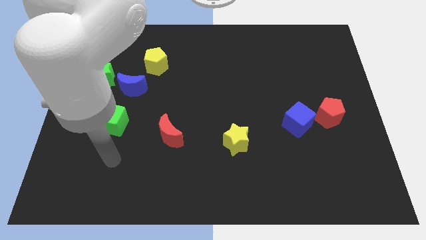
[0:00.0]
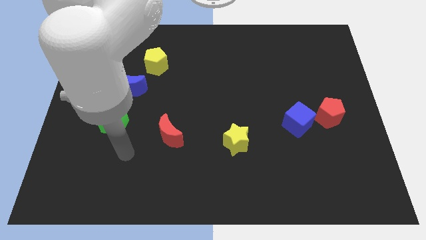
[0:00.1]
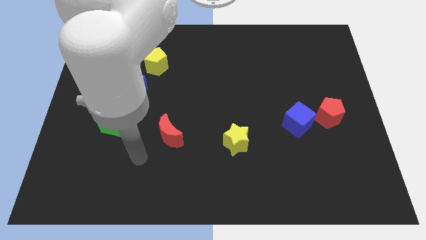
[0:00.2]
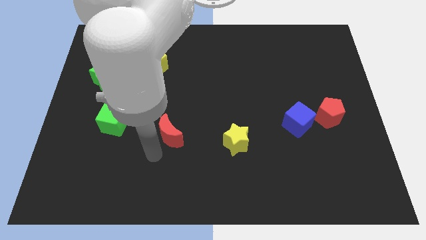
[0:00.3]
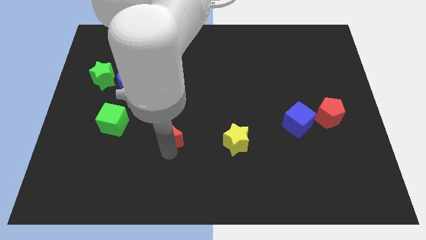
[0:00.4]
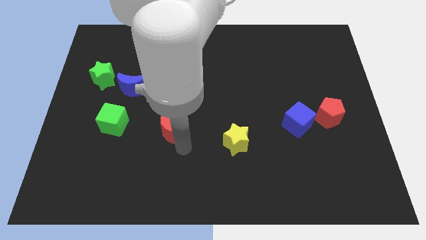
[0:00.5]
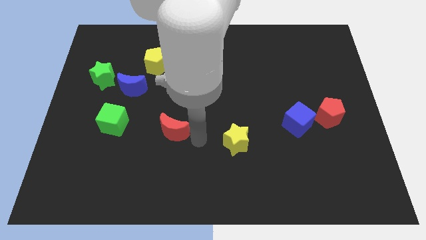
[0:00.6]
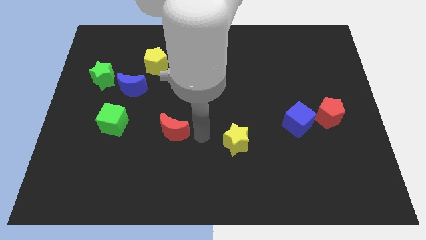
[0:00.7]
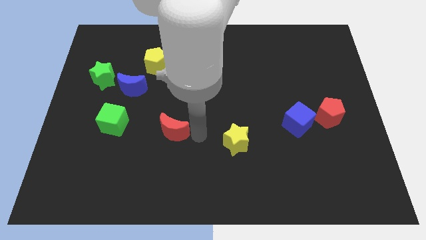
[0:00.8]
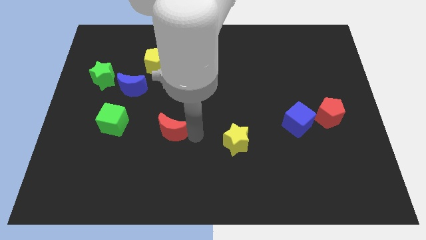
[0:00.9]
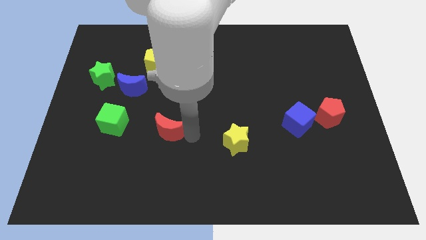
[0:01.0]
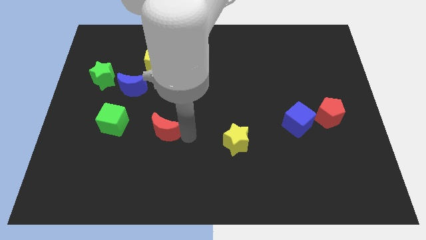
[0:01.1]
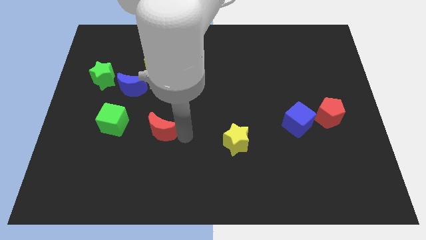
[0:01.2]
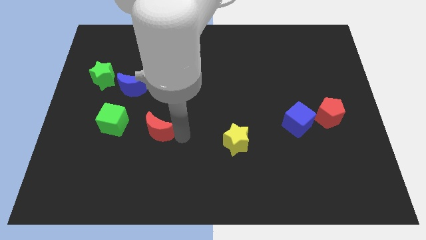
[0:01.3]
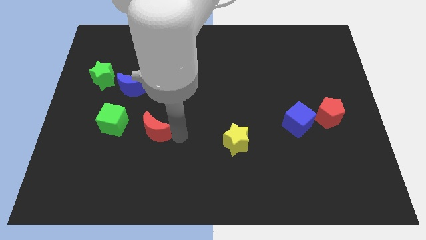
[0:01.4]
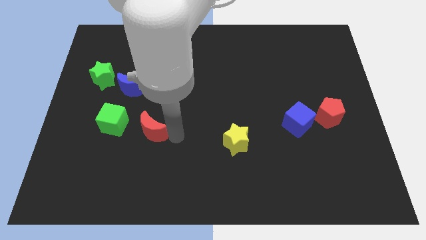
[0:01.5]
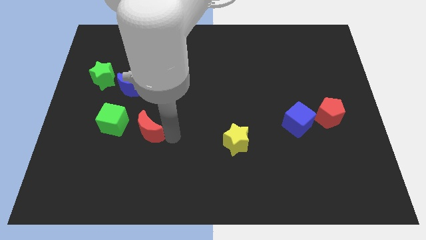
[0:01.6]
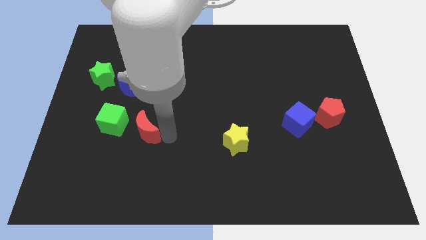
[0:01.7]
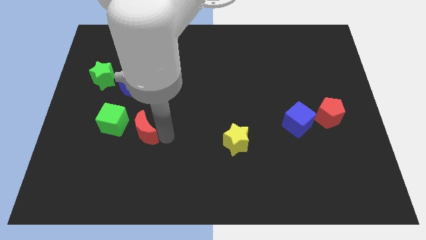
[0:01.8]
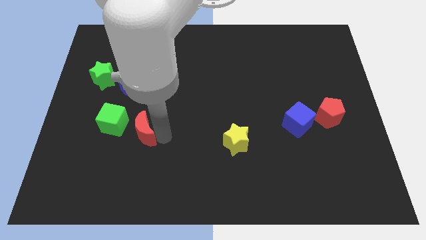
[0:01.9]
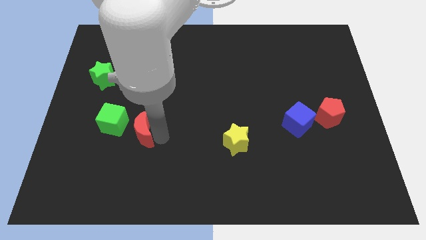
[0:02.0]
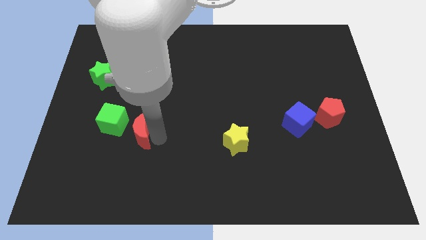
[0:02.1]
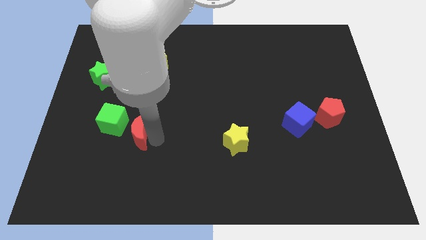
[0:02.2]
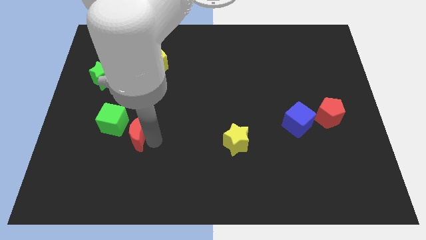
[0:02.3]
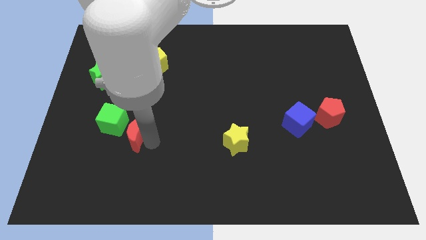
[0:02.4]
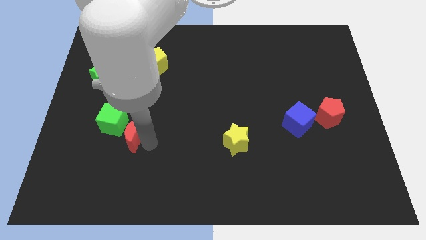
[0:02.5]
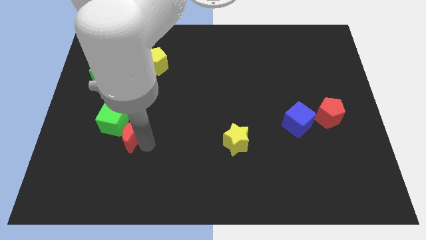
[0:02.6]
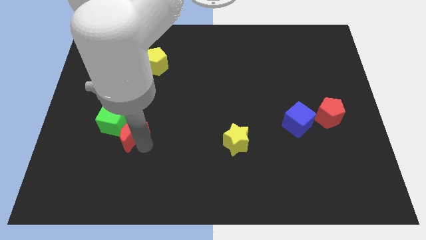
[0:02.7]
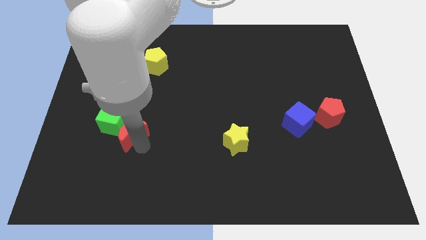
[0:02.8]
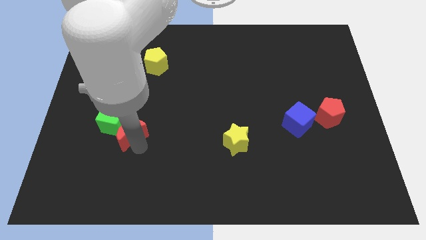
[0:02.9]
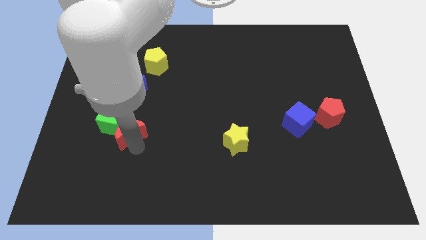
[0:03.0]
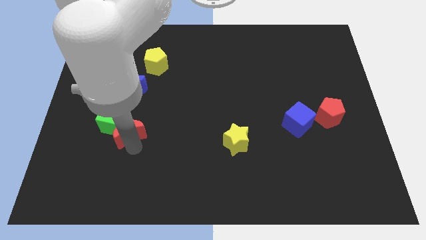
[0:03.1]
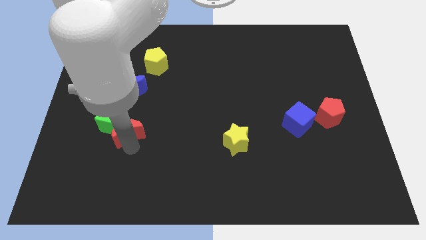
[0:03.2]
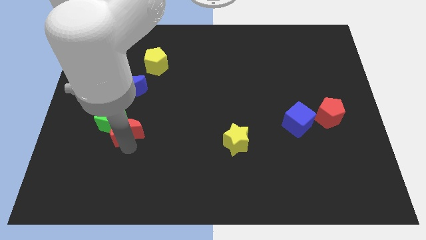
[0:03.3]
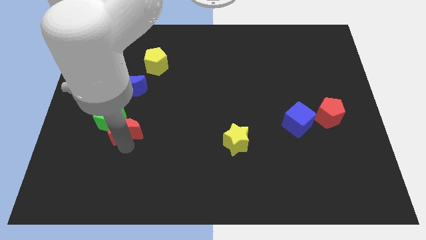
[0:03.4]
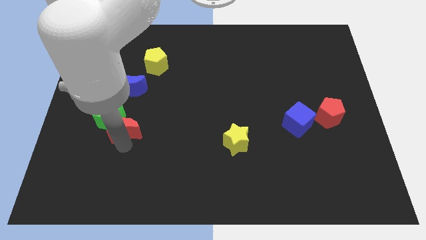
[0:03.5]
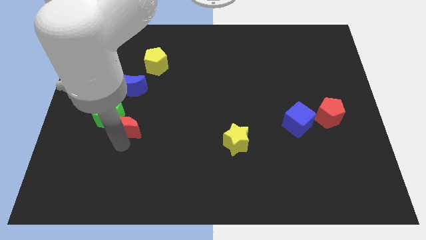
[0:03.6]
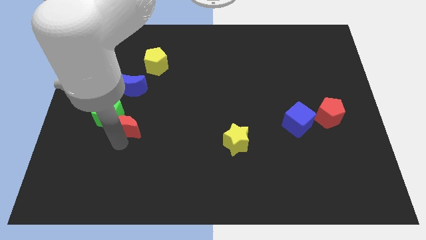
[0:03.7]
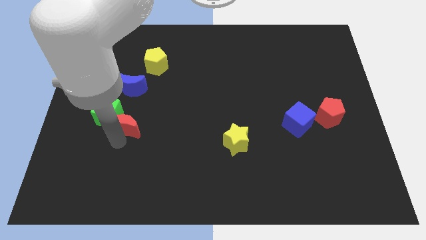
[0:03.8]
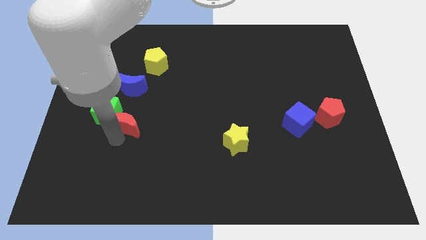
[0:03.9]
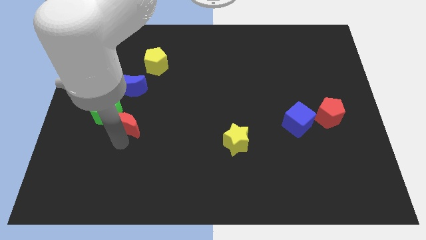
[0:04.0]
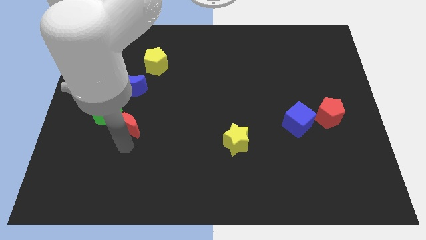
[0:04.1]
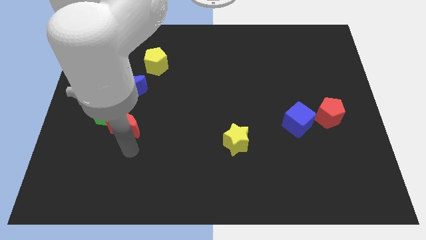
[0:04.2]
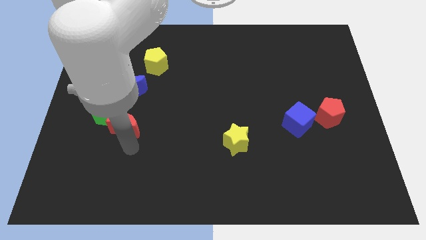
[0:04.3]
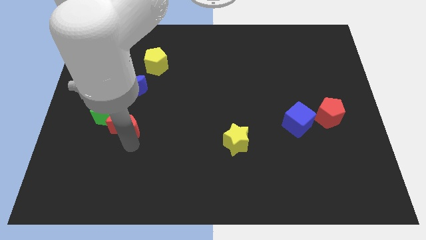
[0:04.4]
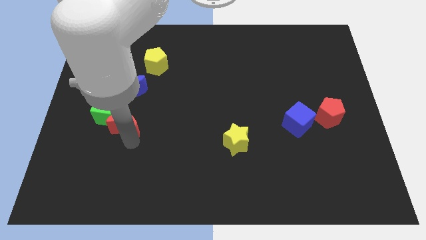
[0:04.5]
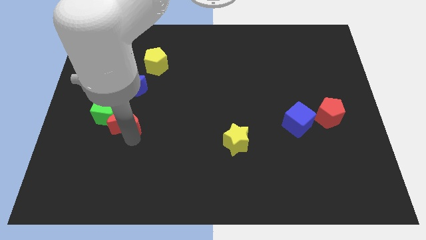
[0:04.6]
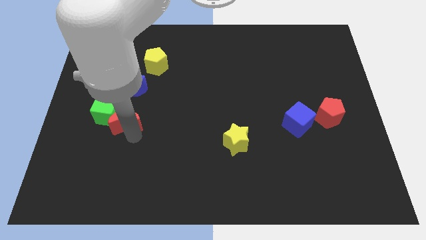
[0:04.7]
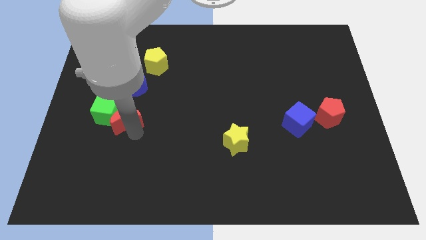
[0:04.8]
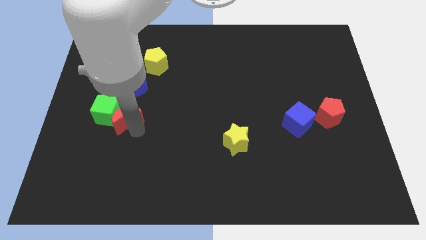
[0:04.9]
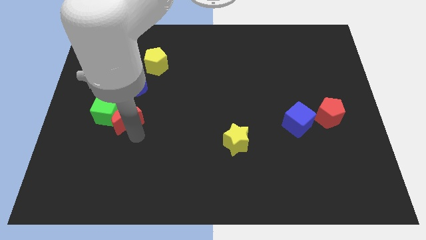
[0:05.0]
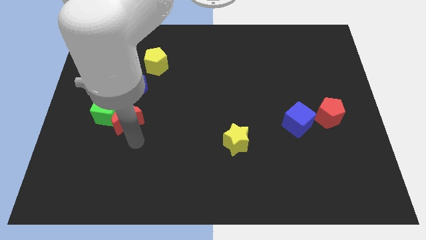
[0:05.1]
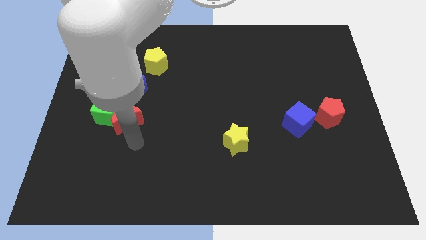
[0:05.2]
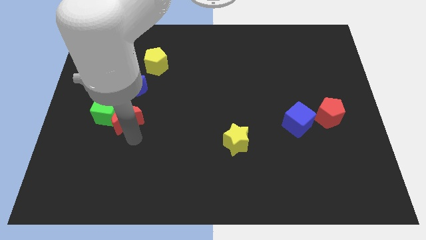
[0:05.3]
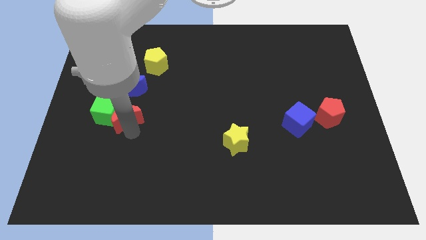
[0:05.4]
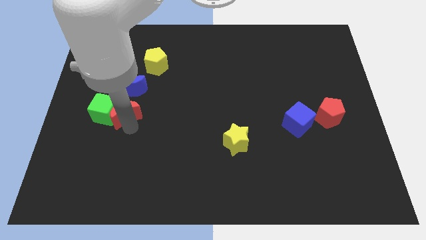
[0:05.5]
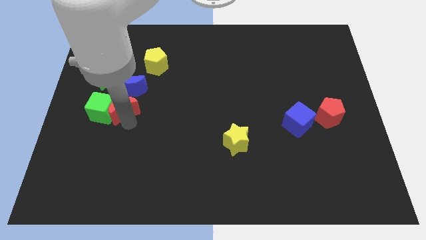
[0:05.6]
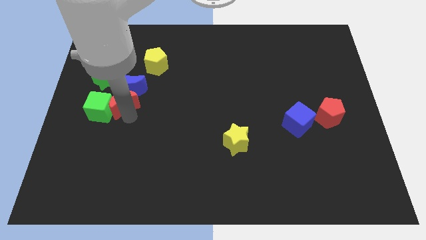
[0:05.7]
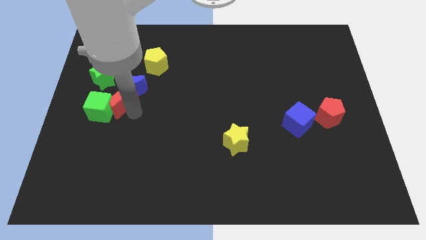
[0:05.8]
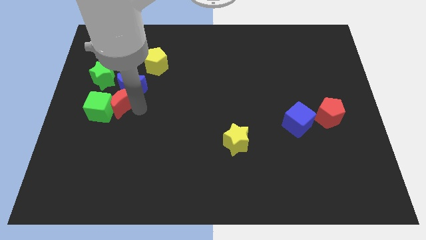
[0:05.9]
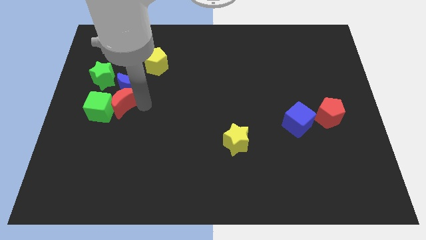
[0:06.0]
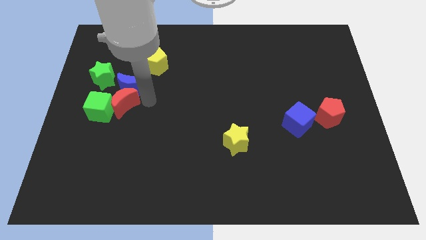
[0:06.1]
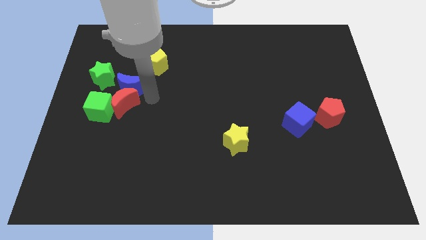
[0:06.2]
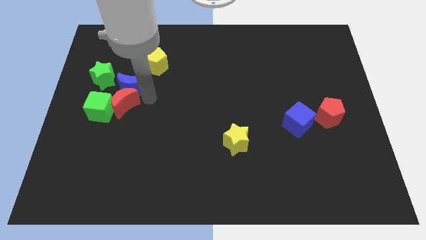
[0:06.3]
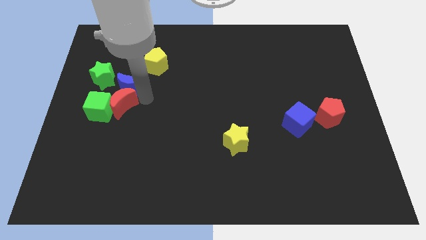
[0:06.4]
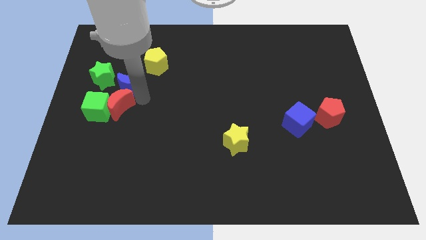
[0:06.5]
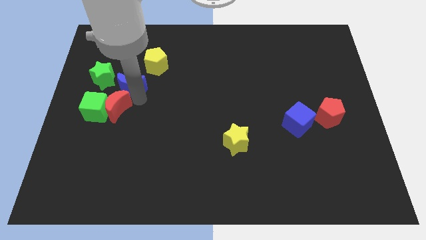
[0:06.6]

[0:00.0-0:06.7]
slide the red moon to the bottom of the green star

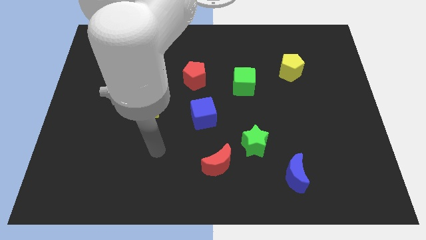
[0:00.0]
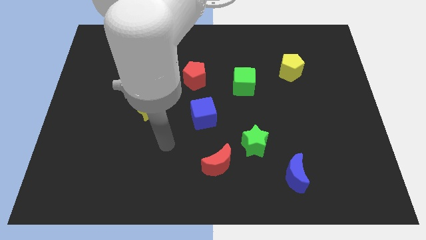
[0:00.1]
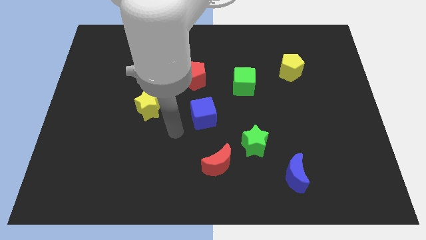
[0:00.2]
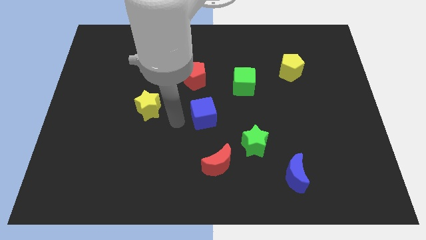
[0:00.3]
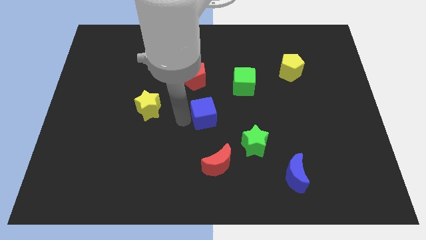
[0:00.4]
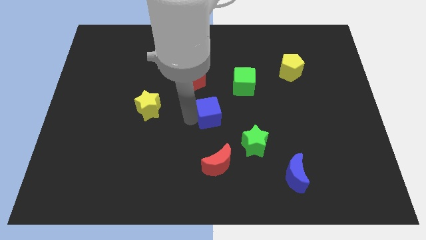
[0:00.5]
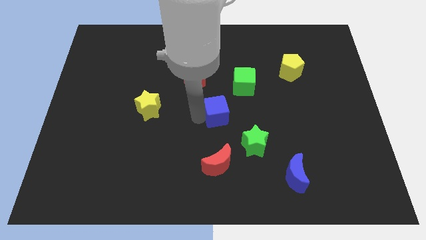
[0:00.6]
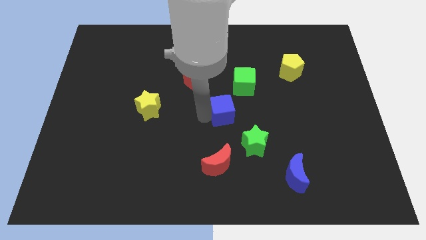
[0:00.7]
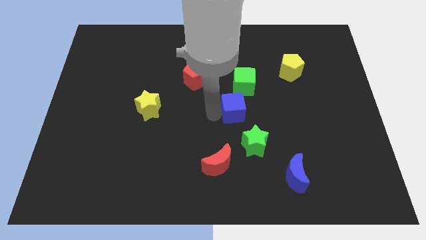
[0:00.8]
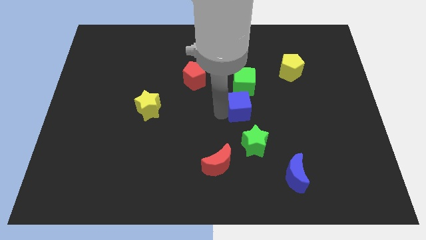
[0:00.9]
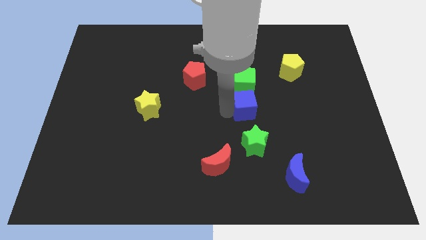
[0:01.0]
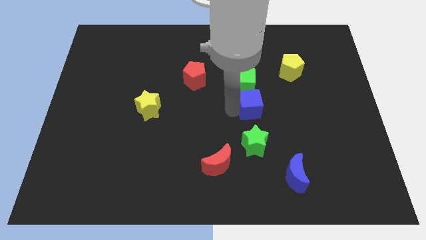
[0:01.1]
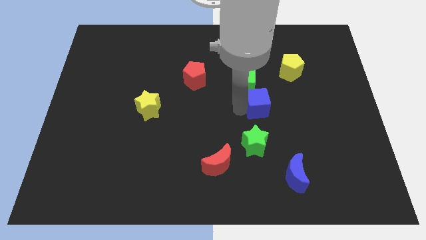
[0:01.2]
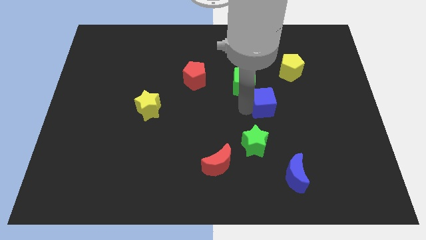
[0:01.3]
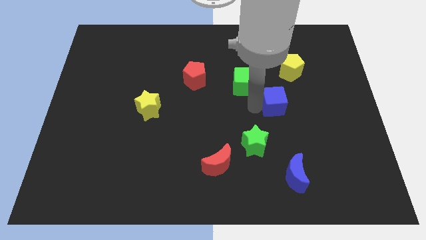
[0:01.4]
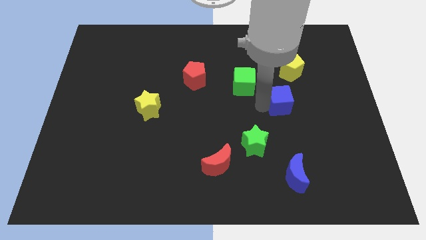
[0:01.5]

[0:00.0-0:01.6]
move the blue cube to the bottom of the yellow pentagon
